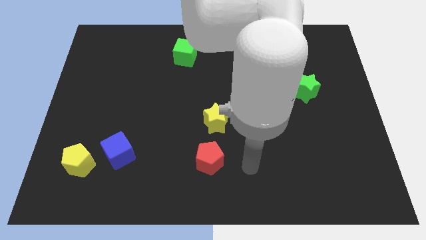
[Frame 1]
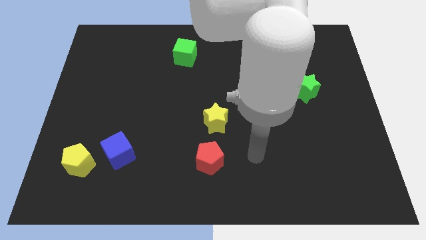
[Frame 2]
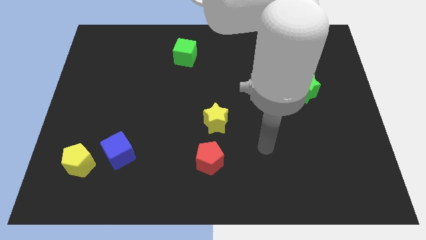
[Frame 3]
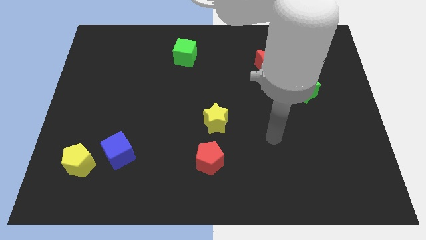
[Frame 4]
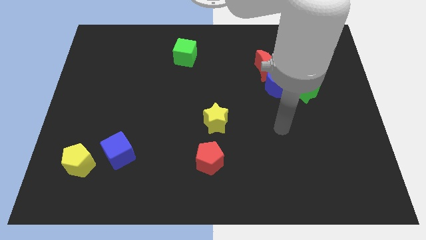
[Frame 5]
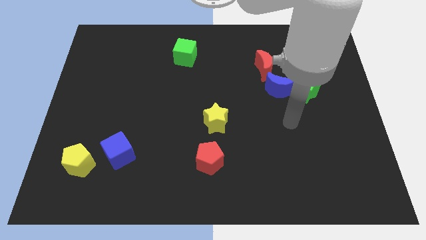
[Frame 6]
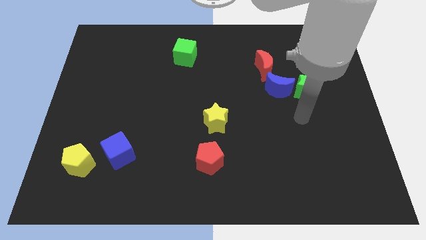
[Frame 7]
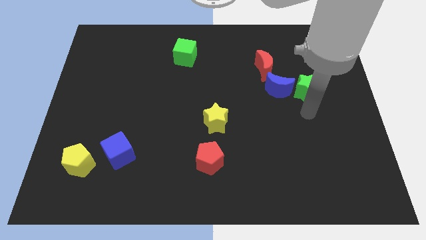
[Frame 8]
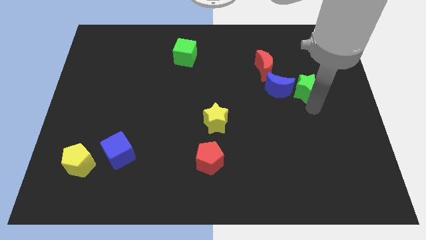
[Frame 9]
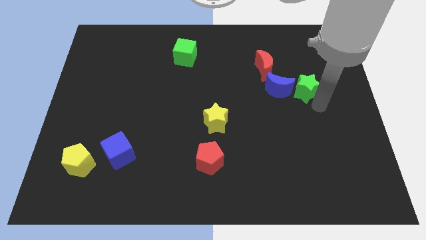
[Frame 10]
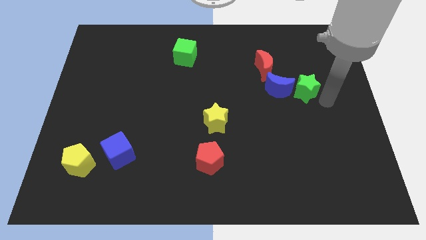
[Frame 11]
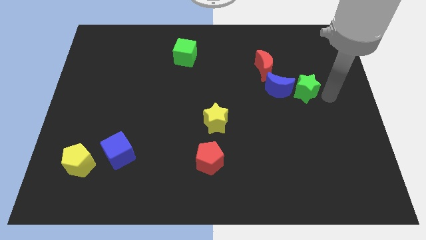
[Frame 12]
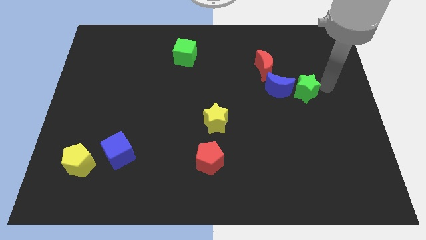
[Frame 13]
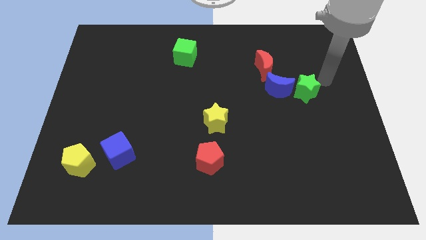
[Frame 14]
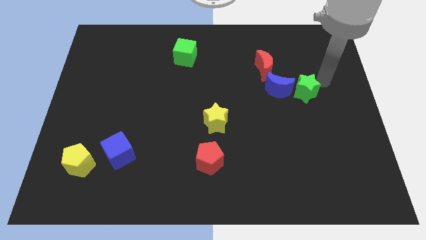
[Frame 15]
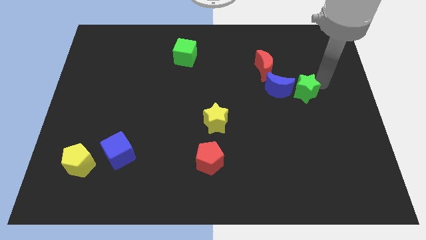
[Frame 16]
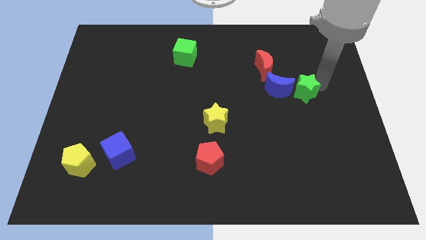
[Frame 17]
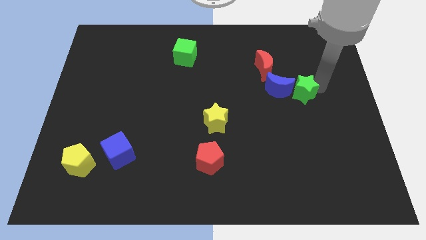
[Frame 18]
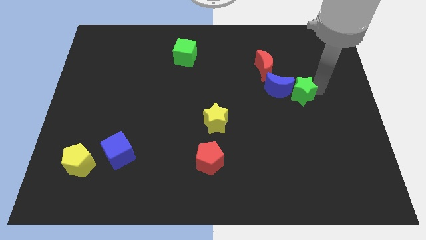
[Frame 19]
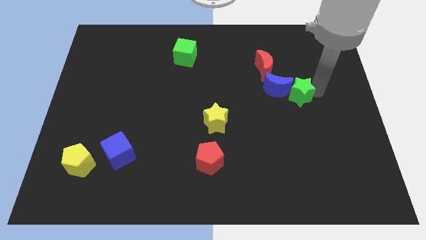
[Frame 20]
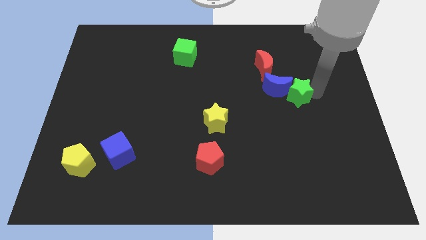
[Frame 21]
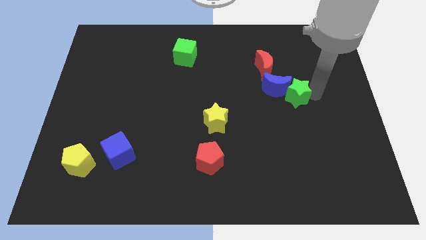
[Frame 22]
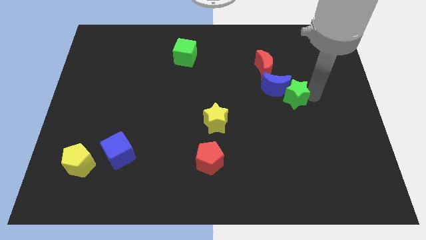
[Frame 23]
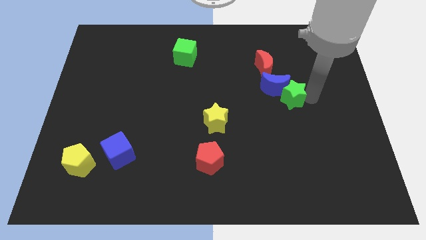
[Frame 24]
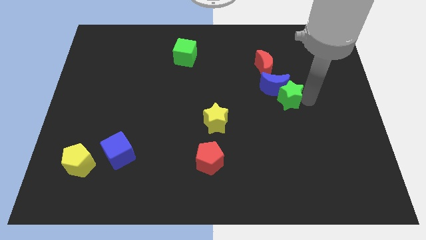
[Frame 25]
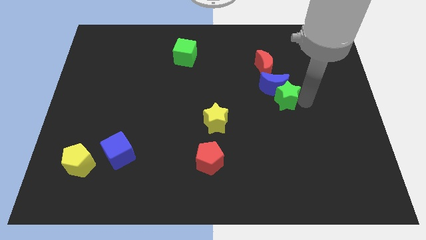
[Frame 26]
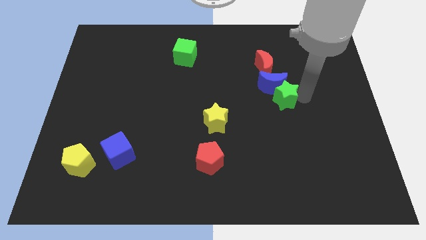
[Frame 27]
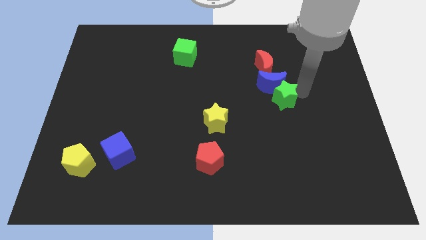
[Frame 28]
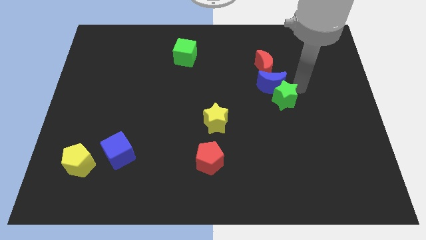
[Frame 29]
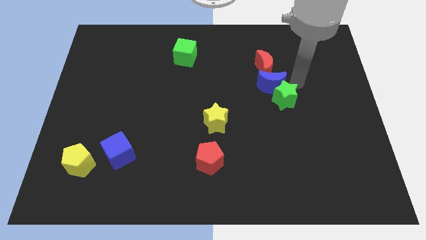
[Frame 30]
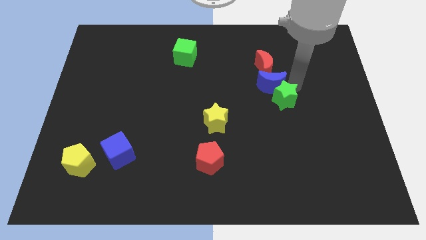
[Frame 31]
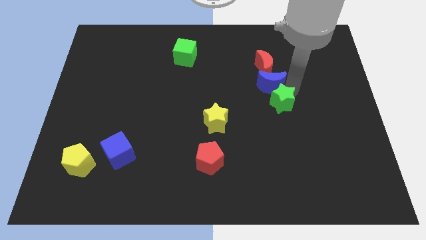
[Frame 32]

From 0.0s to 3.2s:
push the green star a little bit downwards and then to the left

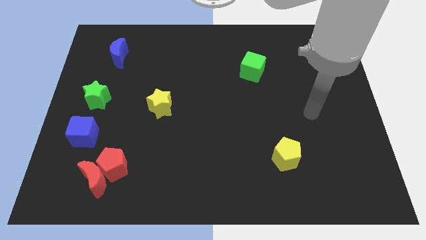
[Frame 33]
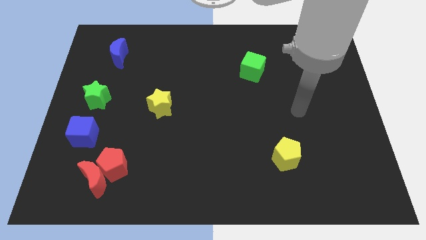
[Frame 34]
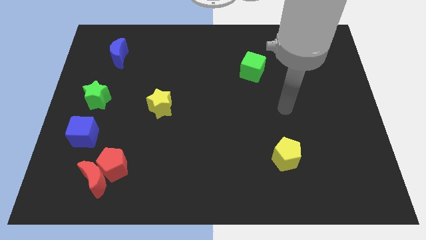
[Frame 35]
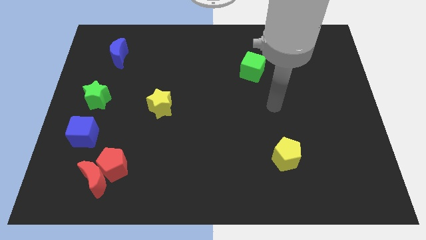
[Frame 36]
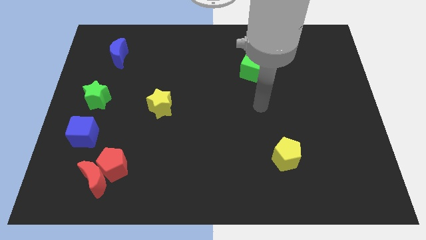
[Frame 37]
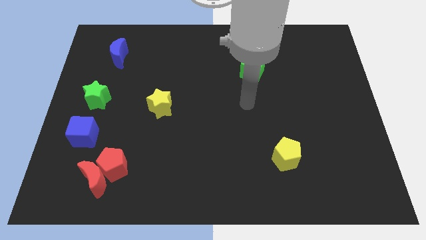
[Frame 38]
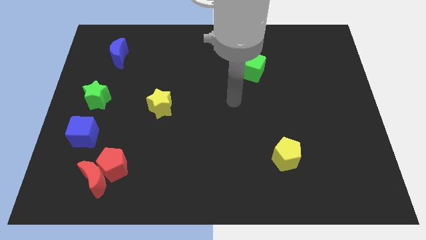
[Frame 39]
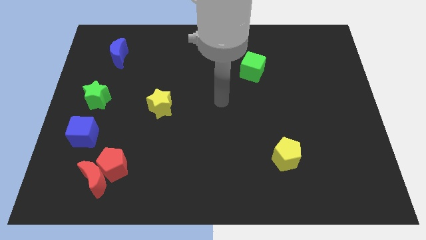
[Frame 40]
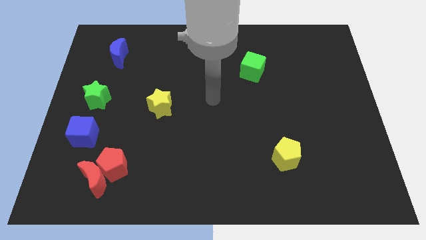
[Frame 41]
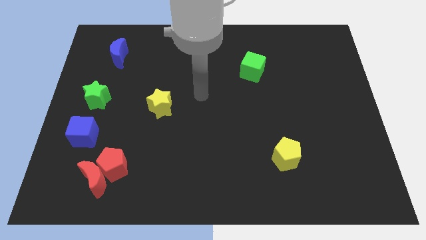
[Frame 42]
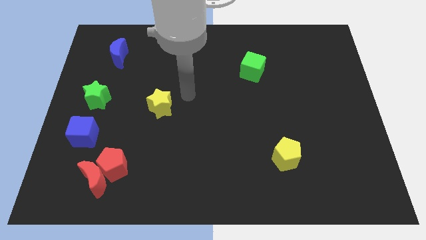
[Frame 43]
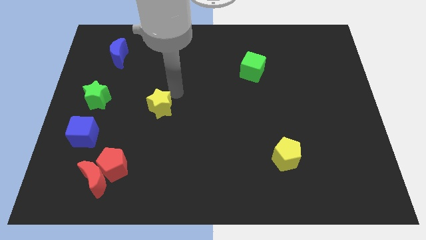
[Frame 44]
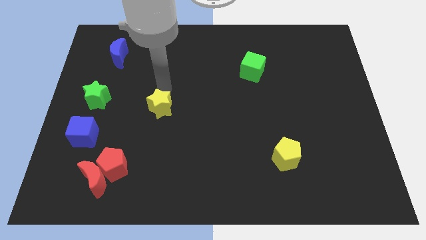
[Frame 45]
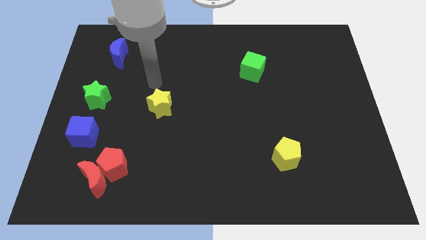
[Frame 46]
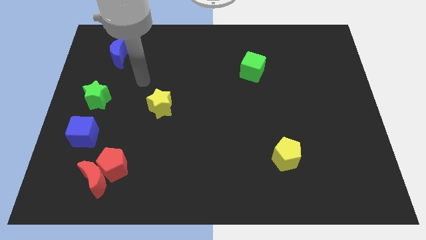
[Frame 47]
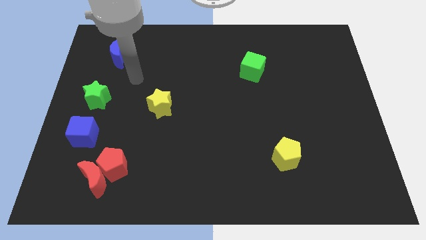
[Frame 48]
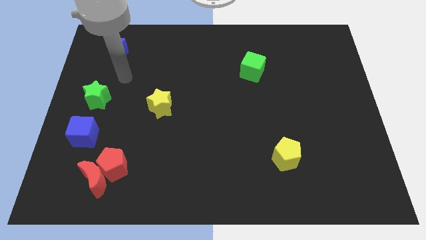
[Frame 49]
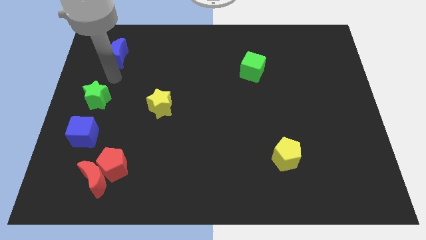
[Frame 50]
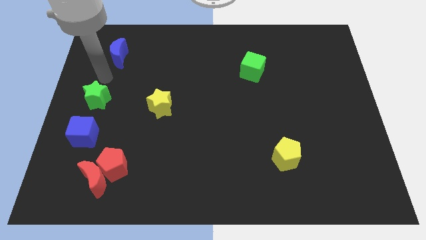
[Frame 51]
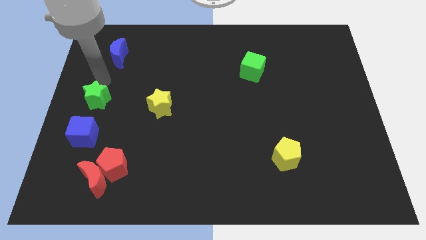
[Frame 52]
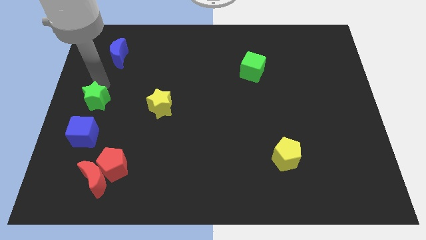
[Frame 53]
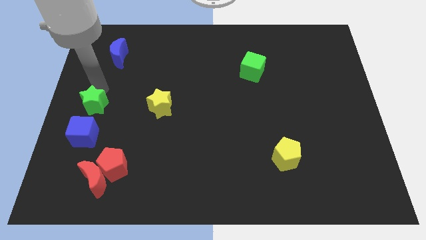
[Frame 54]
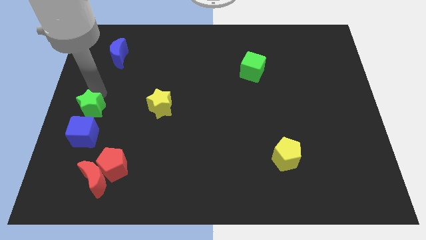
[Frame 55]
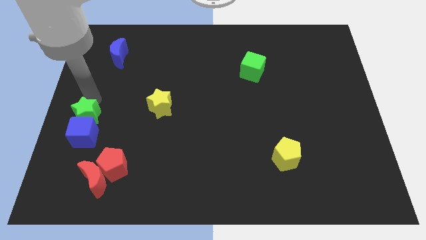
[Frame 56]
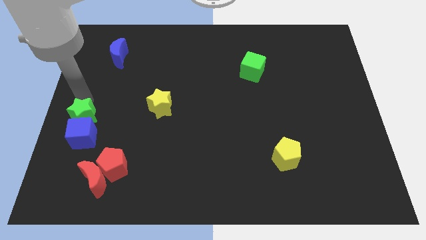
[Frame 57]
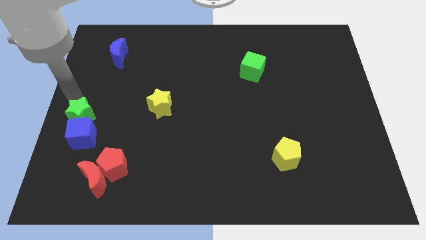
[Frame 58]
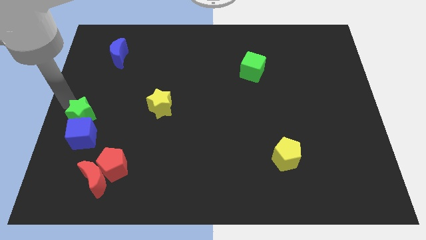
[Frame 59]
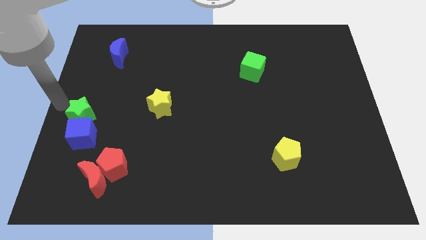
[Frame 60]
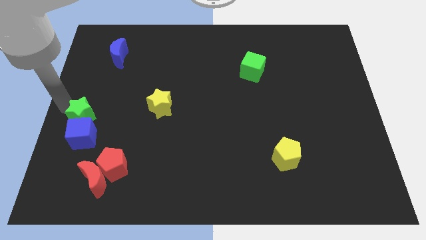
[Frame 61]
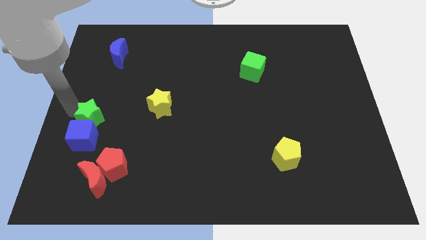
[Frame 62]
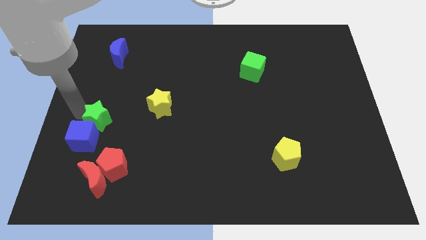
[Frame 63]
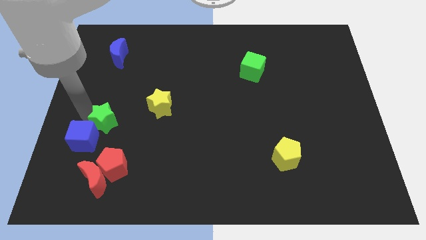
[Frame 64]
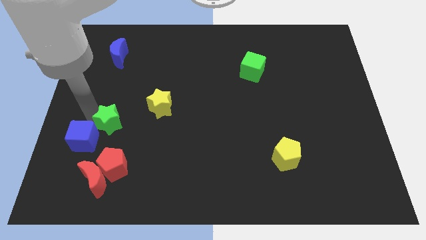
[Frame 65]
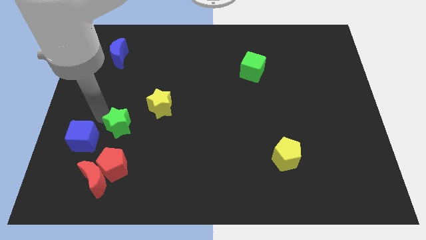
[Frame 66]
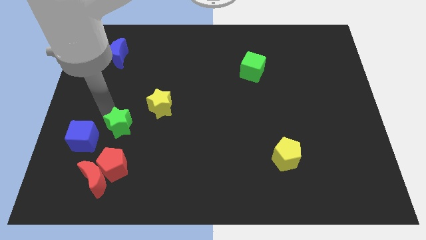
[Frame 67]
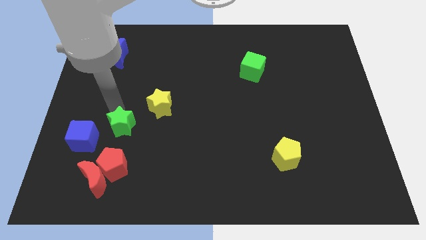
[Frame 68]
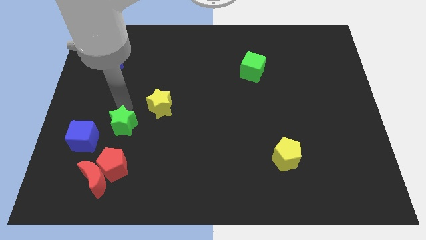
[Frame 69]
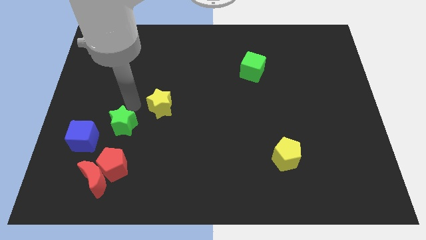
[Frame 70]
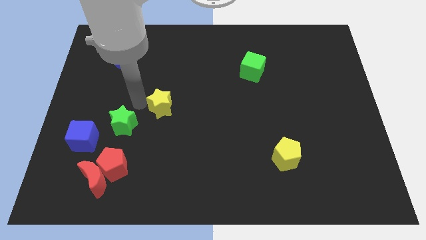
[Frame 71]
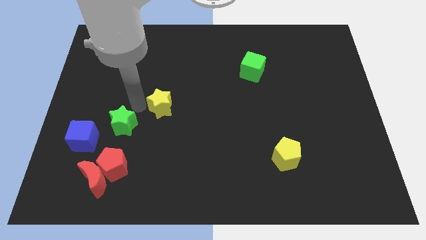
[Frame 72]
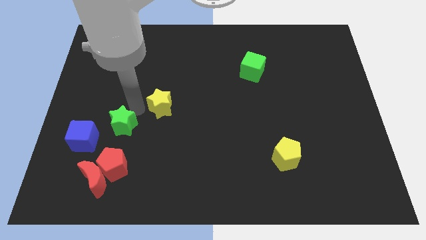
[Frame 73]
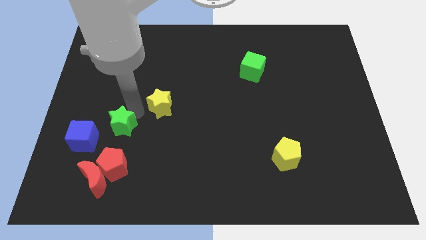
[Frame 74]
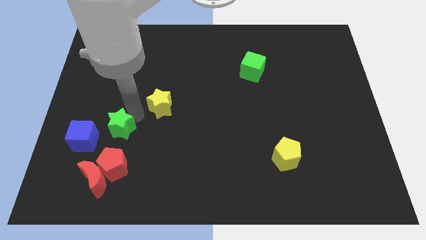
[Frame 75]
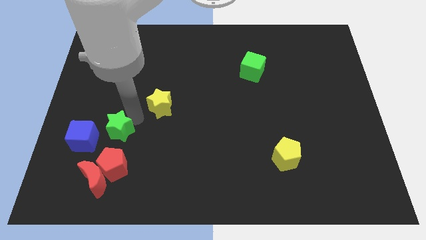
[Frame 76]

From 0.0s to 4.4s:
slightly move the green star downwards
